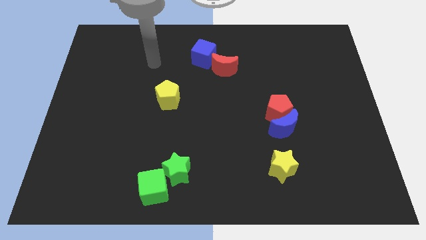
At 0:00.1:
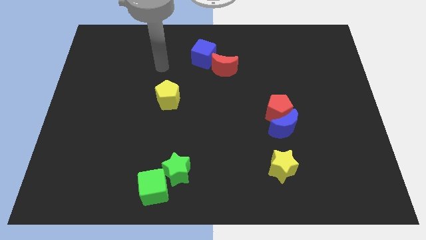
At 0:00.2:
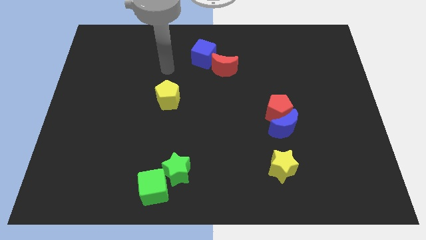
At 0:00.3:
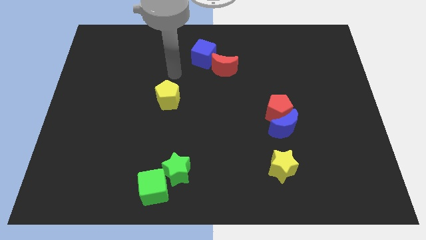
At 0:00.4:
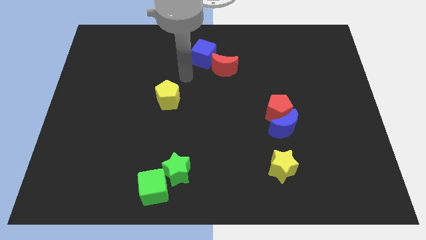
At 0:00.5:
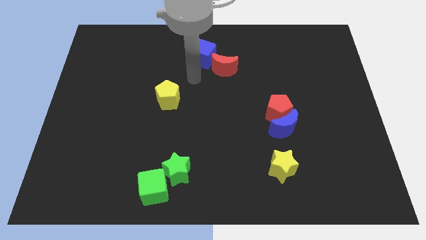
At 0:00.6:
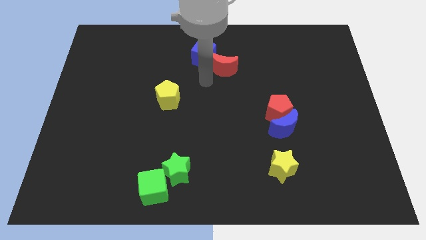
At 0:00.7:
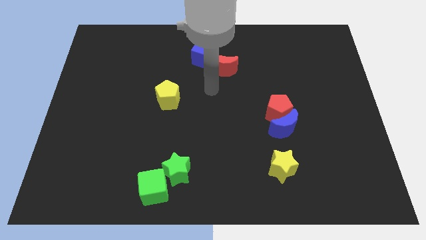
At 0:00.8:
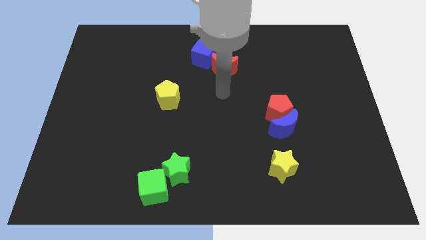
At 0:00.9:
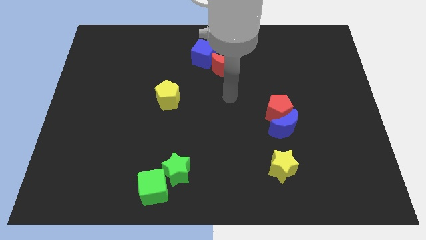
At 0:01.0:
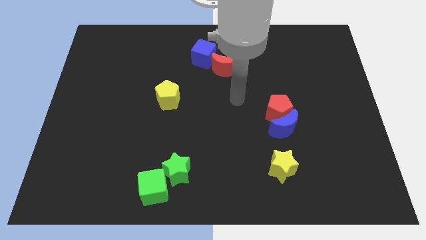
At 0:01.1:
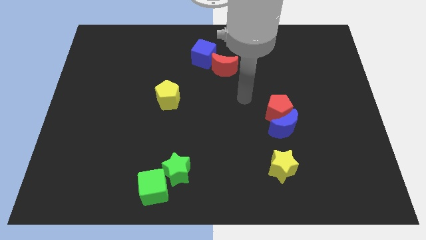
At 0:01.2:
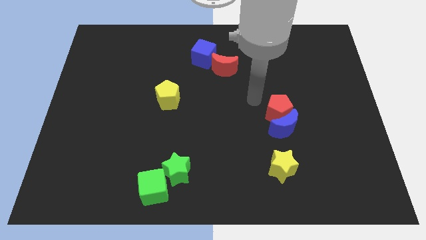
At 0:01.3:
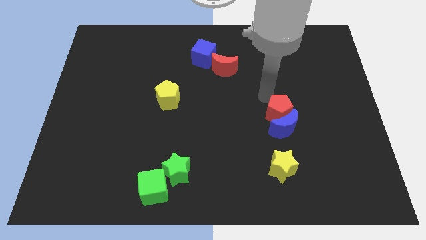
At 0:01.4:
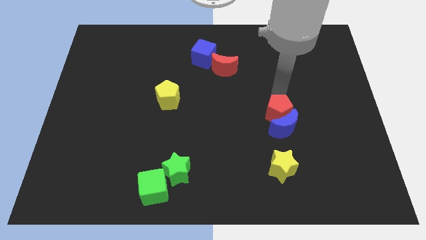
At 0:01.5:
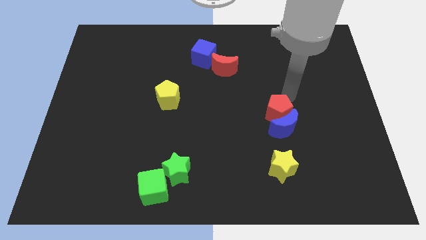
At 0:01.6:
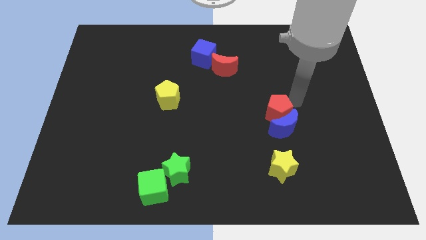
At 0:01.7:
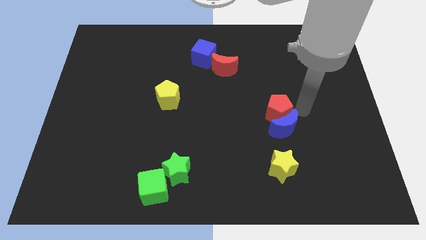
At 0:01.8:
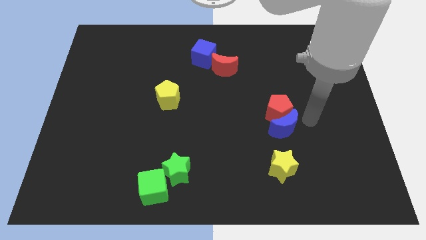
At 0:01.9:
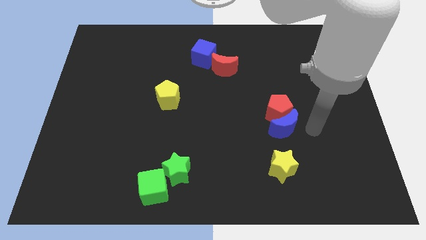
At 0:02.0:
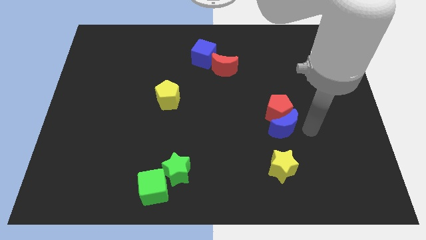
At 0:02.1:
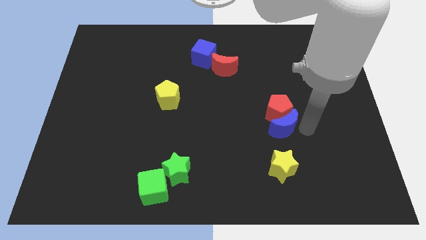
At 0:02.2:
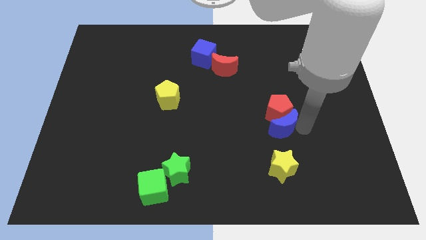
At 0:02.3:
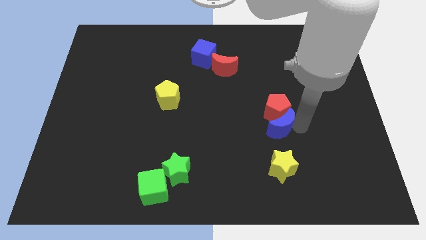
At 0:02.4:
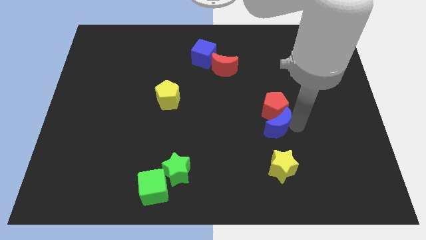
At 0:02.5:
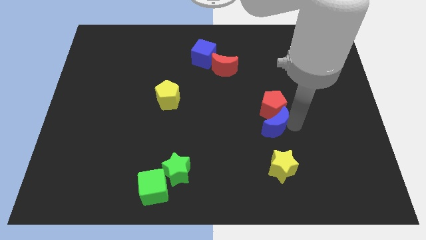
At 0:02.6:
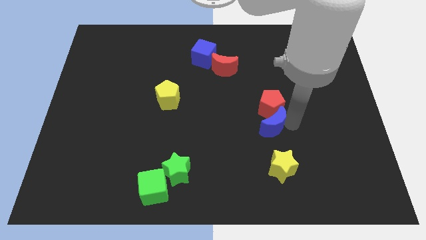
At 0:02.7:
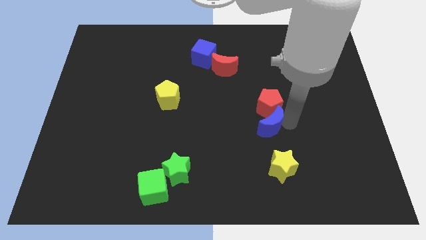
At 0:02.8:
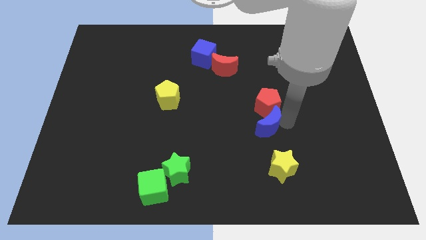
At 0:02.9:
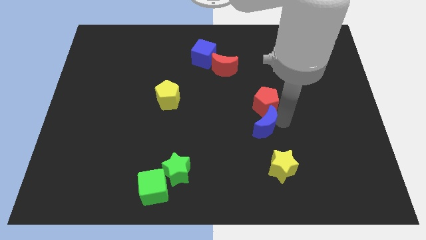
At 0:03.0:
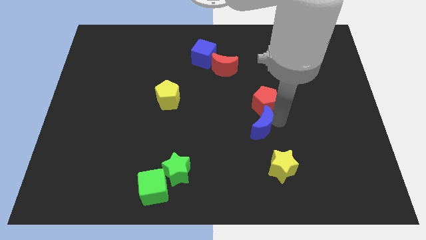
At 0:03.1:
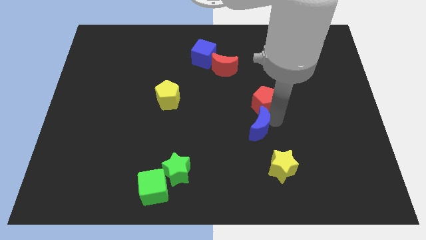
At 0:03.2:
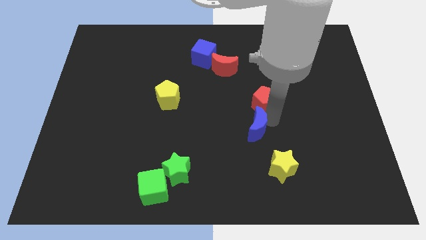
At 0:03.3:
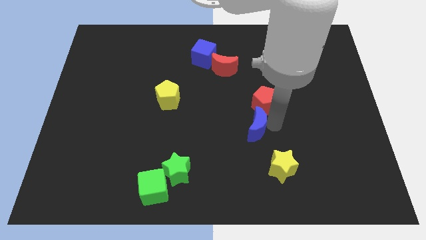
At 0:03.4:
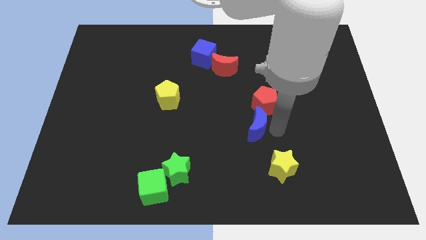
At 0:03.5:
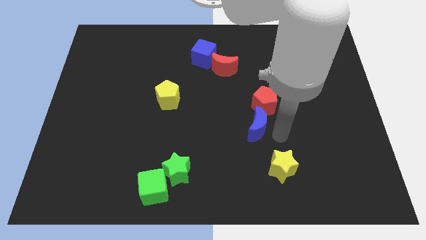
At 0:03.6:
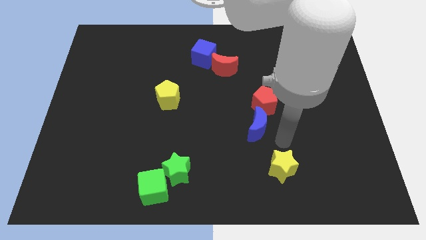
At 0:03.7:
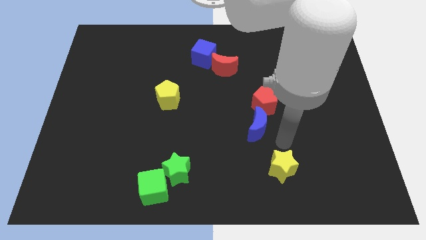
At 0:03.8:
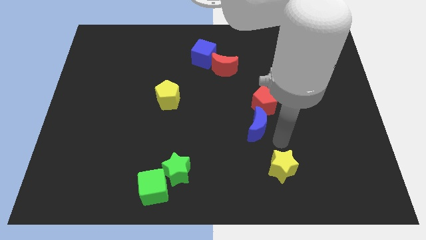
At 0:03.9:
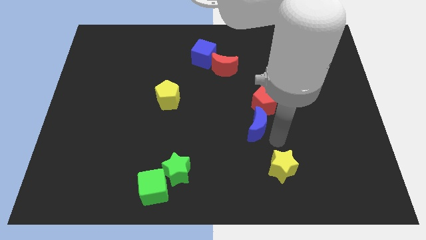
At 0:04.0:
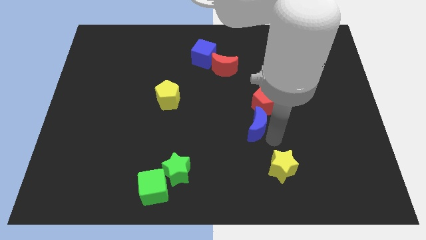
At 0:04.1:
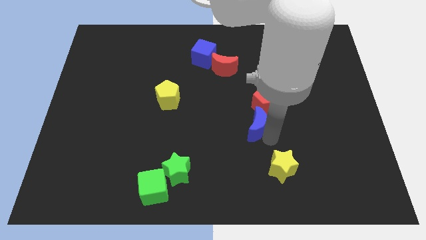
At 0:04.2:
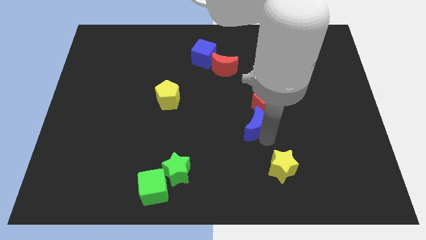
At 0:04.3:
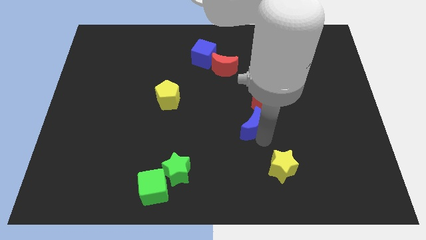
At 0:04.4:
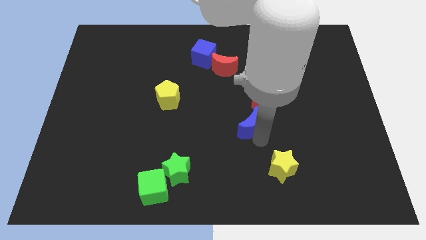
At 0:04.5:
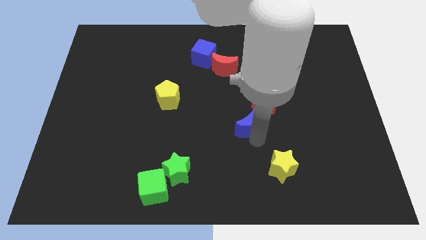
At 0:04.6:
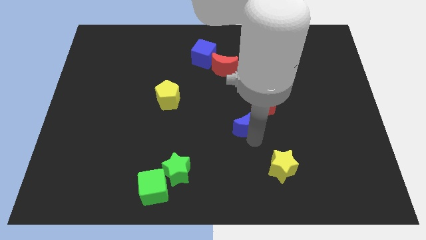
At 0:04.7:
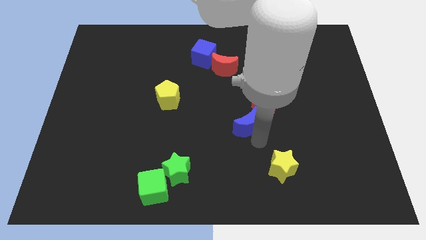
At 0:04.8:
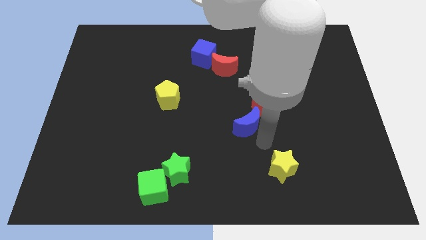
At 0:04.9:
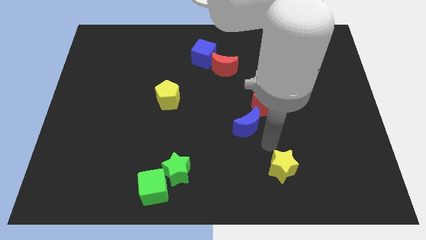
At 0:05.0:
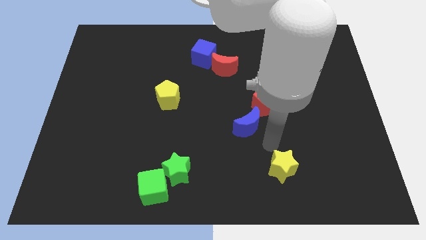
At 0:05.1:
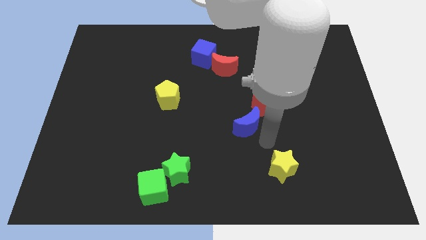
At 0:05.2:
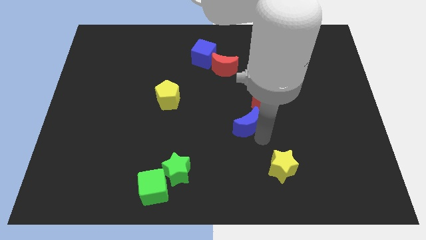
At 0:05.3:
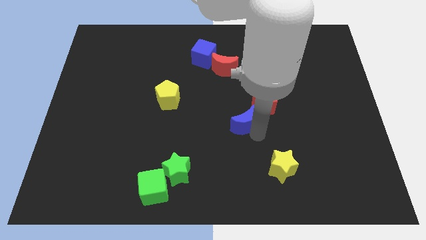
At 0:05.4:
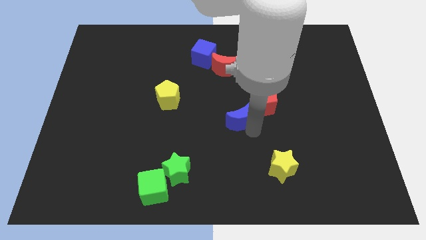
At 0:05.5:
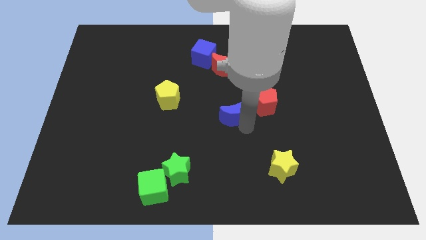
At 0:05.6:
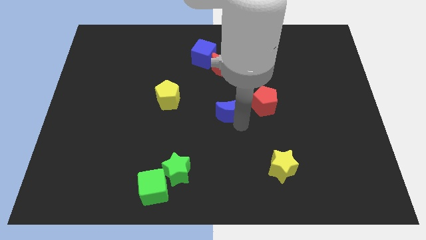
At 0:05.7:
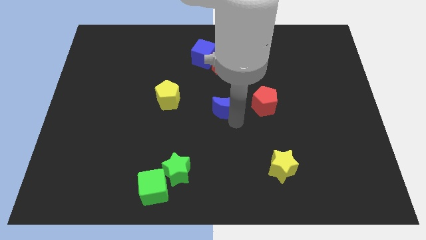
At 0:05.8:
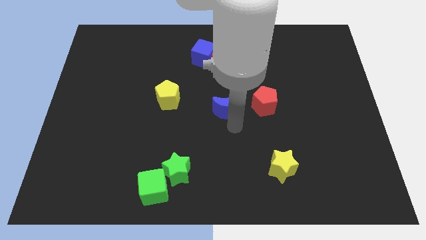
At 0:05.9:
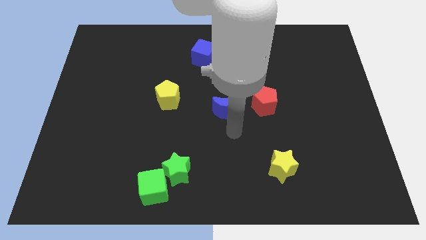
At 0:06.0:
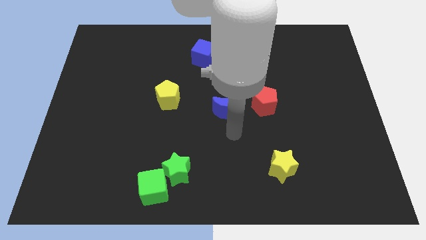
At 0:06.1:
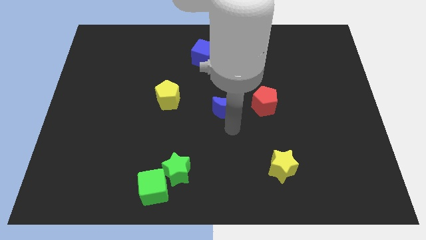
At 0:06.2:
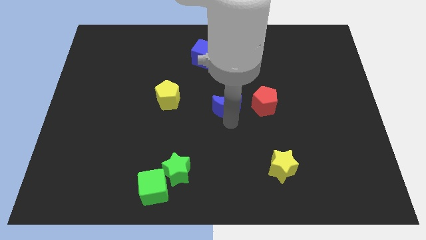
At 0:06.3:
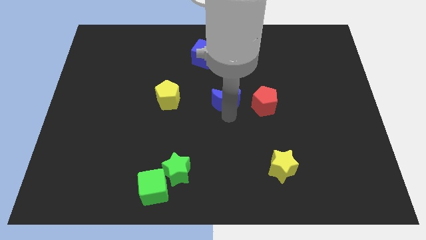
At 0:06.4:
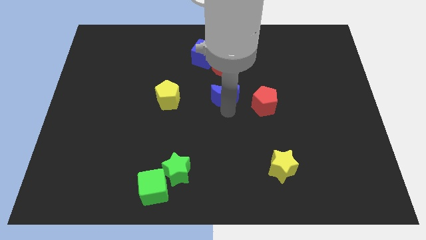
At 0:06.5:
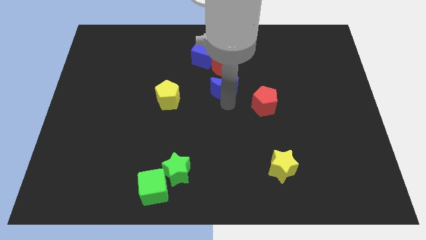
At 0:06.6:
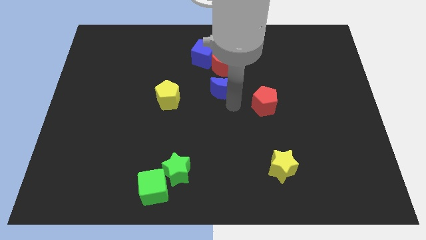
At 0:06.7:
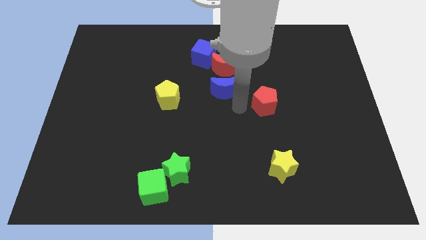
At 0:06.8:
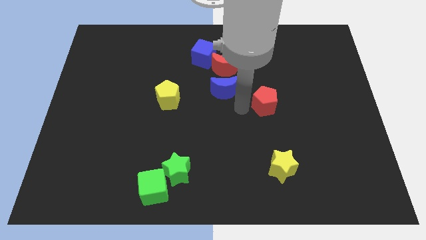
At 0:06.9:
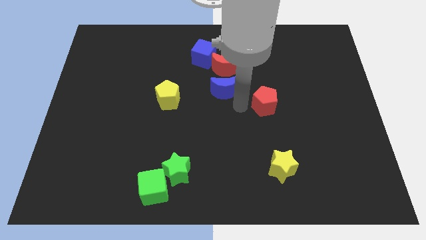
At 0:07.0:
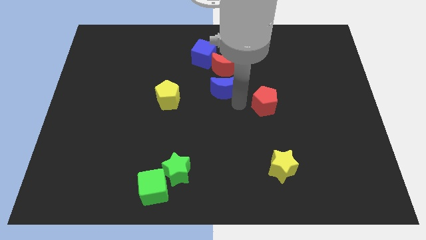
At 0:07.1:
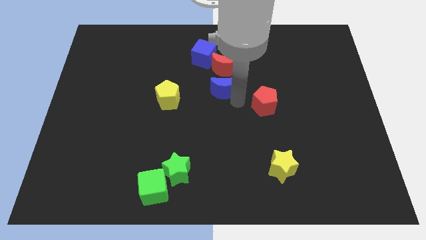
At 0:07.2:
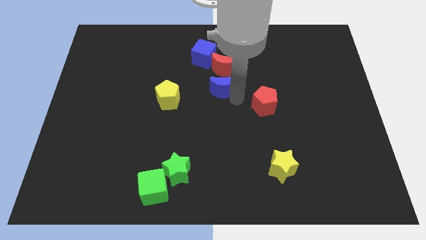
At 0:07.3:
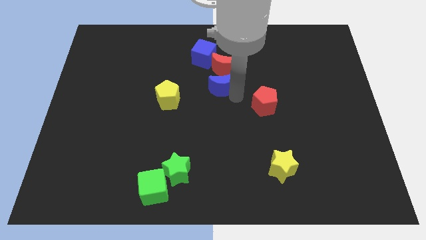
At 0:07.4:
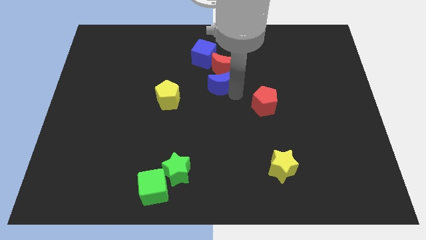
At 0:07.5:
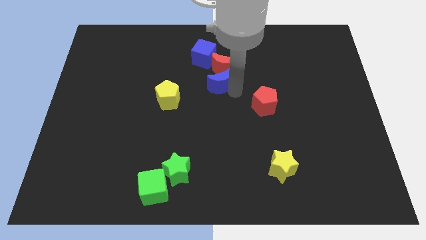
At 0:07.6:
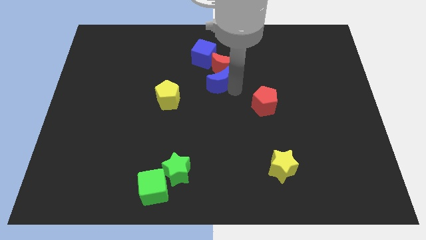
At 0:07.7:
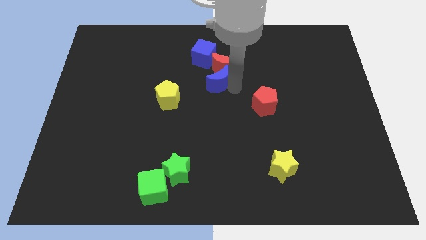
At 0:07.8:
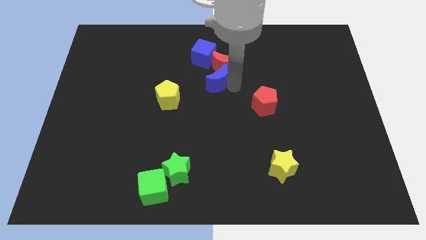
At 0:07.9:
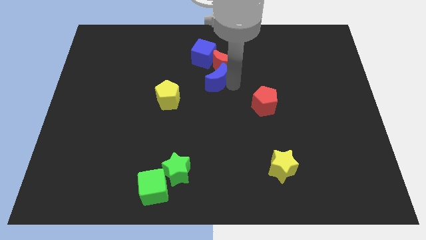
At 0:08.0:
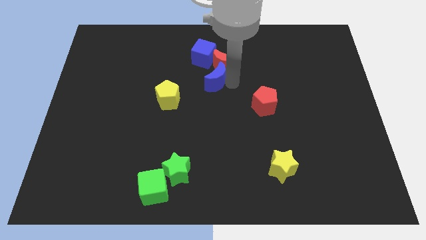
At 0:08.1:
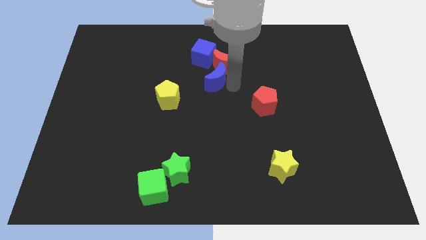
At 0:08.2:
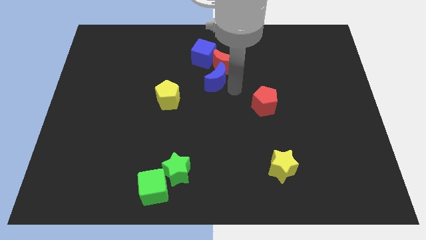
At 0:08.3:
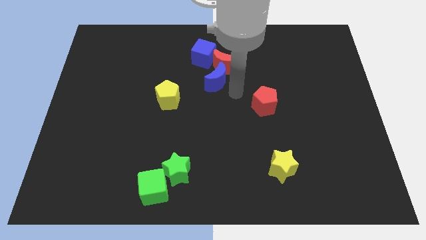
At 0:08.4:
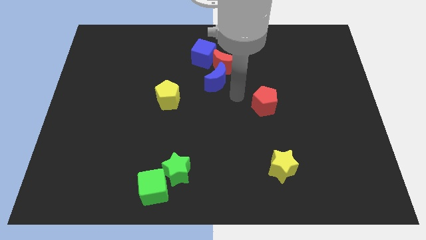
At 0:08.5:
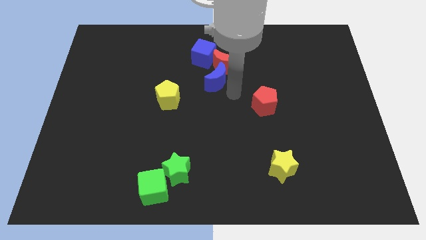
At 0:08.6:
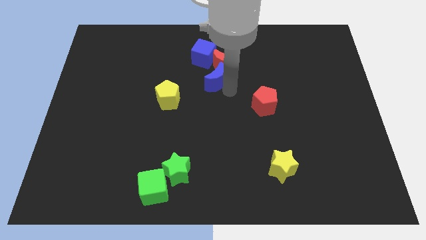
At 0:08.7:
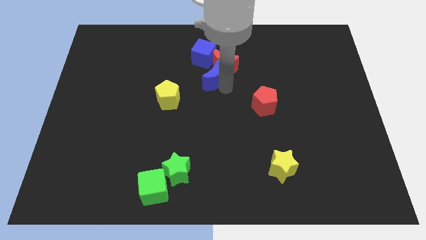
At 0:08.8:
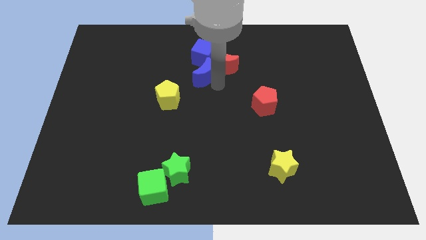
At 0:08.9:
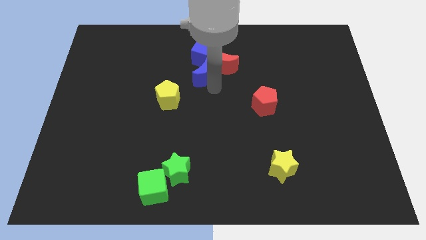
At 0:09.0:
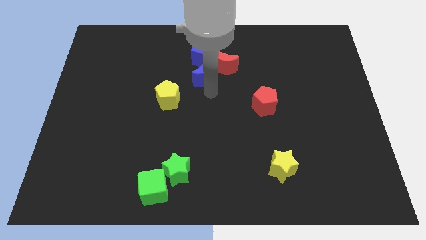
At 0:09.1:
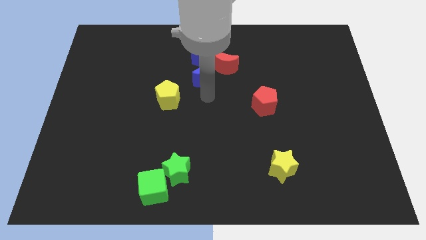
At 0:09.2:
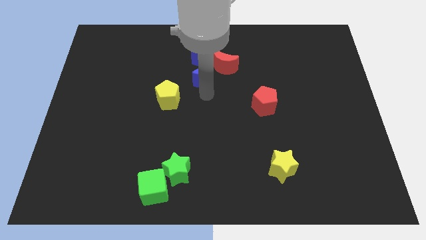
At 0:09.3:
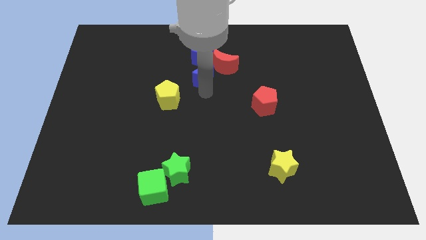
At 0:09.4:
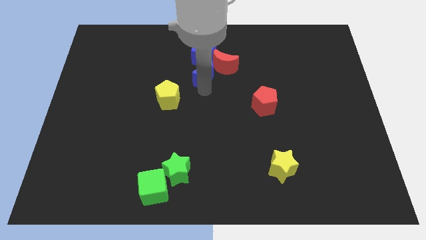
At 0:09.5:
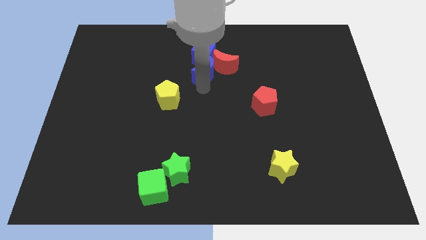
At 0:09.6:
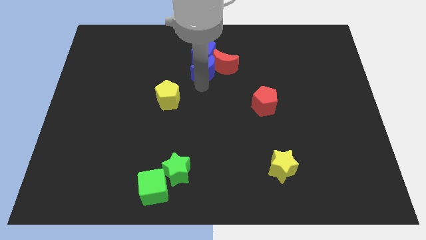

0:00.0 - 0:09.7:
move the blue moon to the blue cube
